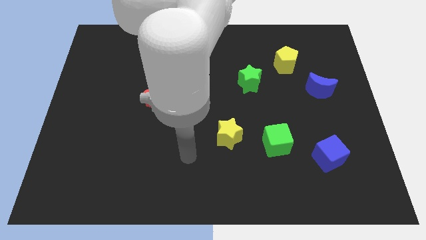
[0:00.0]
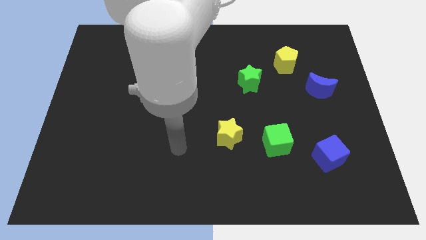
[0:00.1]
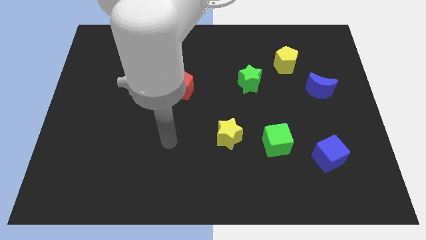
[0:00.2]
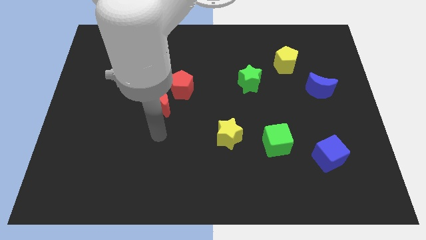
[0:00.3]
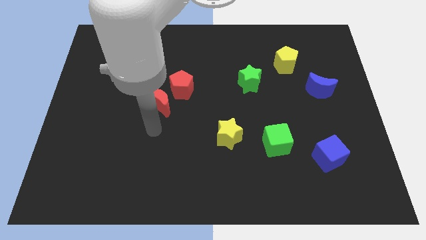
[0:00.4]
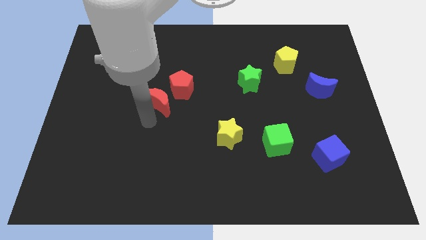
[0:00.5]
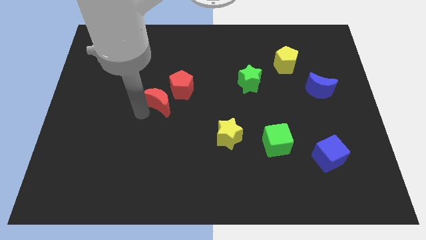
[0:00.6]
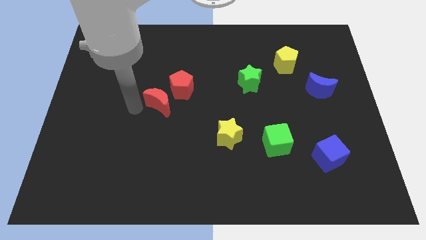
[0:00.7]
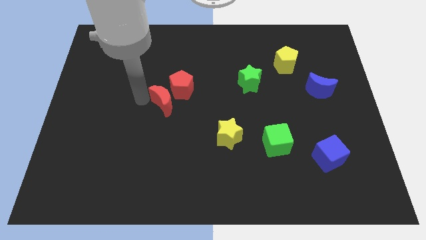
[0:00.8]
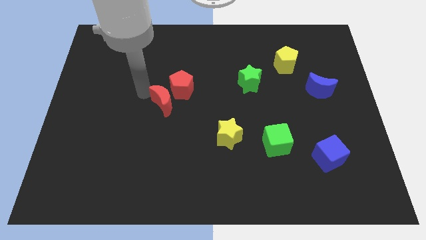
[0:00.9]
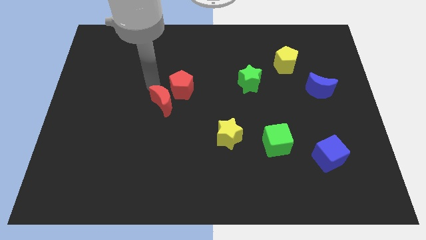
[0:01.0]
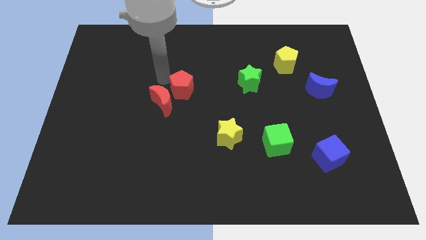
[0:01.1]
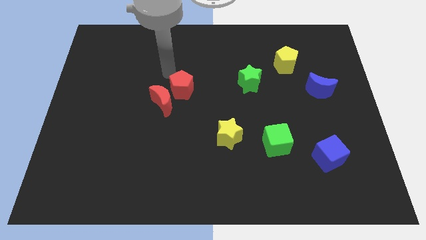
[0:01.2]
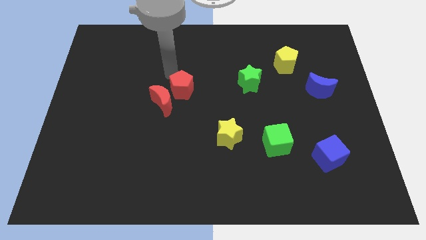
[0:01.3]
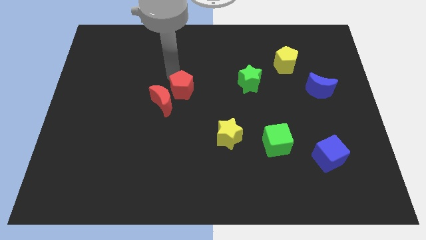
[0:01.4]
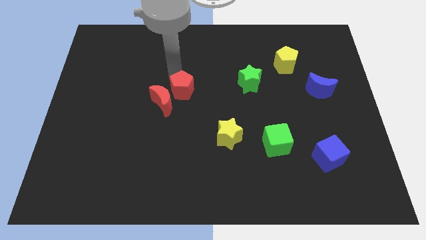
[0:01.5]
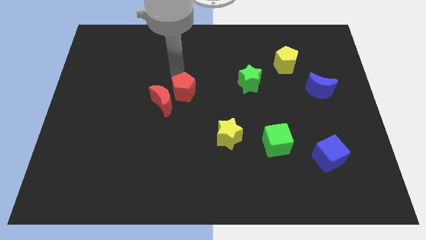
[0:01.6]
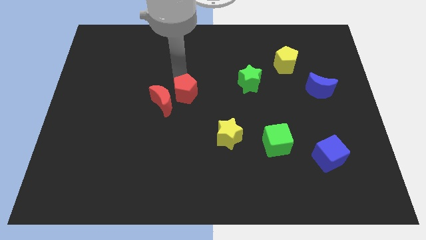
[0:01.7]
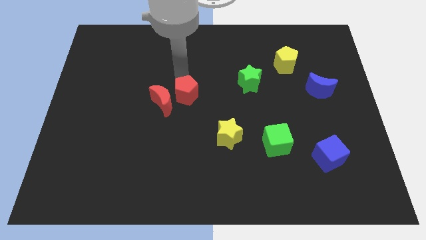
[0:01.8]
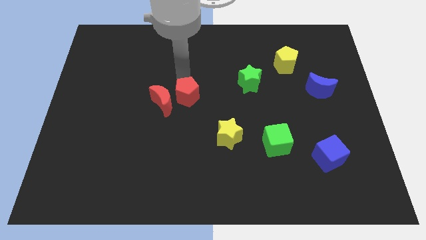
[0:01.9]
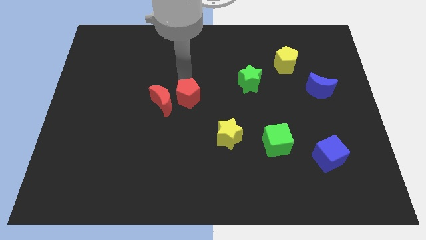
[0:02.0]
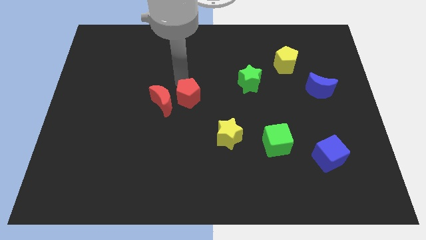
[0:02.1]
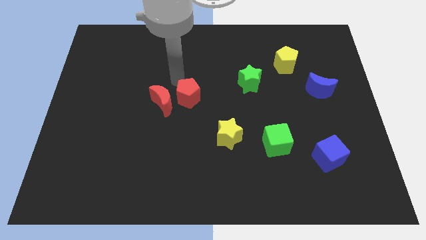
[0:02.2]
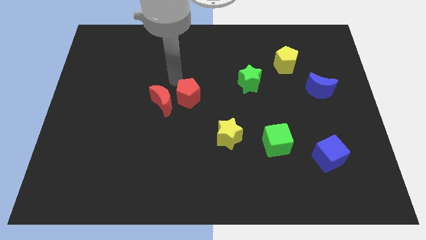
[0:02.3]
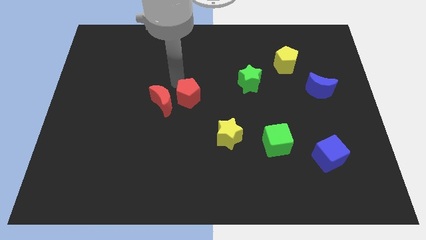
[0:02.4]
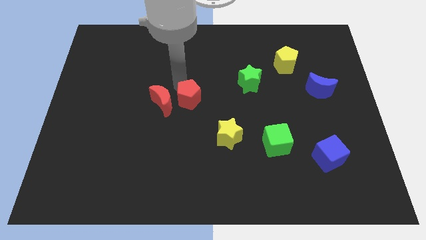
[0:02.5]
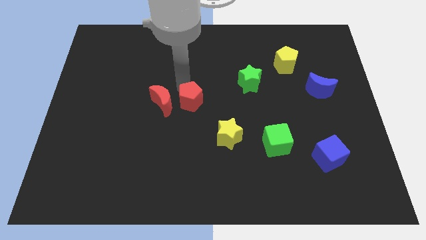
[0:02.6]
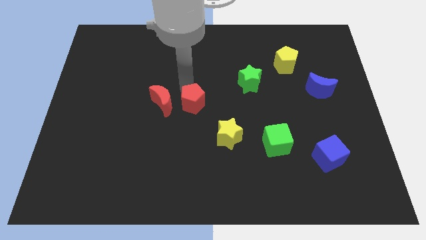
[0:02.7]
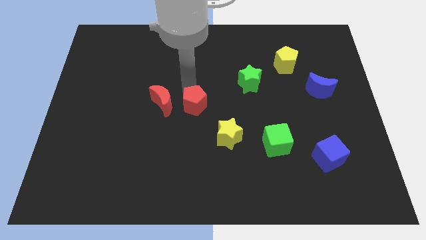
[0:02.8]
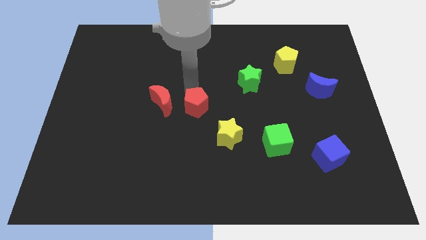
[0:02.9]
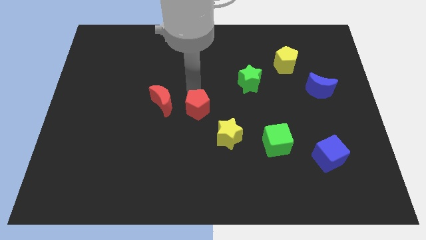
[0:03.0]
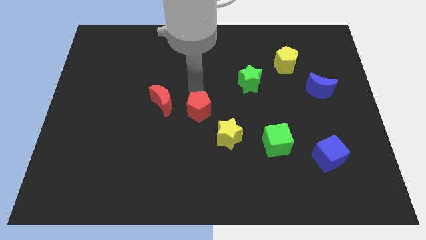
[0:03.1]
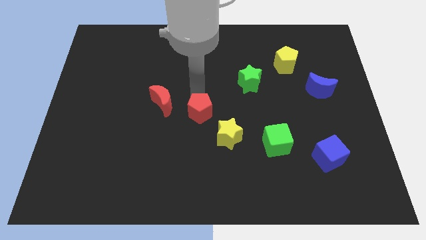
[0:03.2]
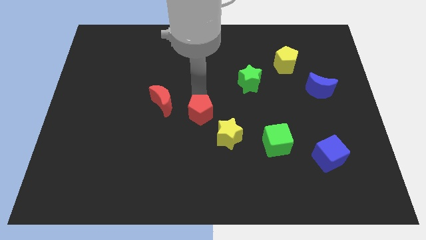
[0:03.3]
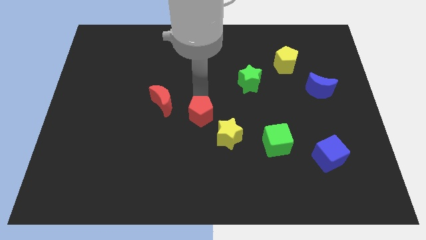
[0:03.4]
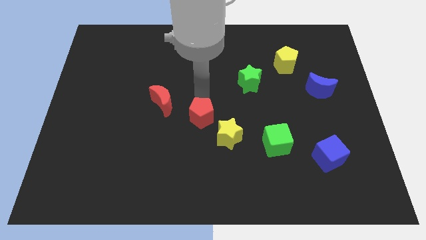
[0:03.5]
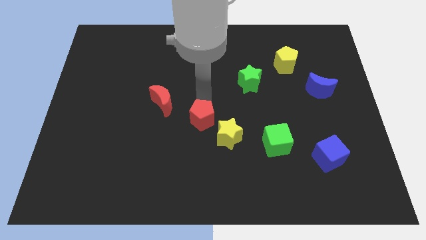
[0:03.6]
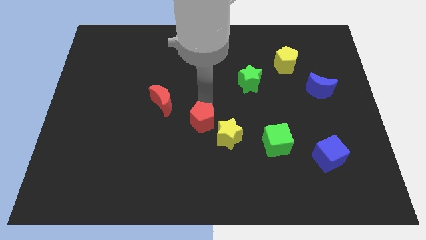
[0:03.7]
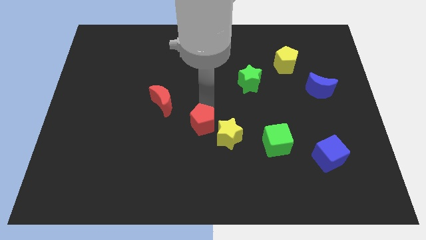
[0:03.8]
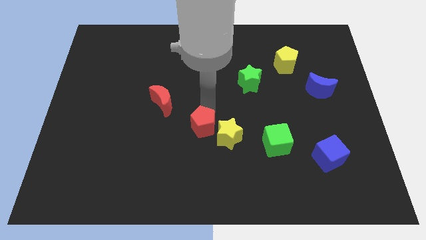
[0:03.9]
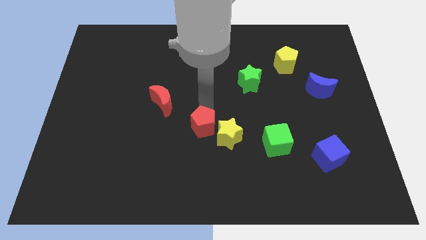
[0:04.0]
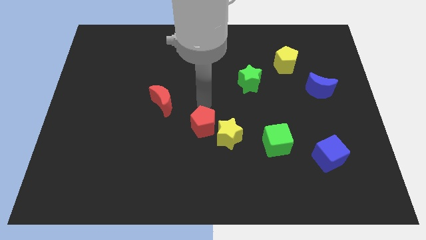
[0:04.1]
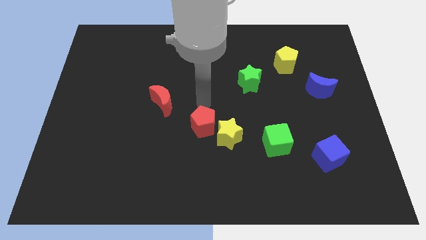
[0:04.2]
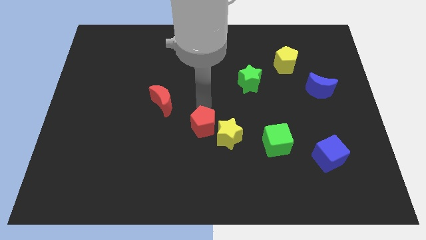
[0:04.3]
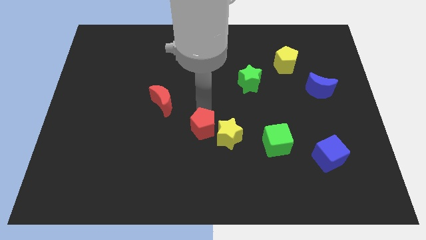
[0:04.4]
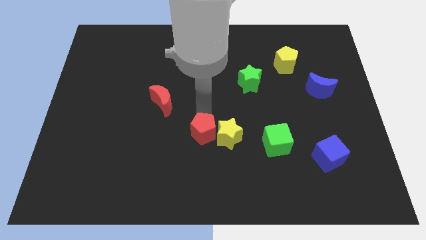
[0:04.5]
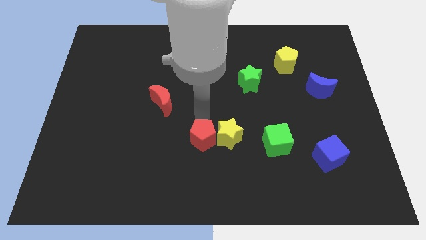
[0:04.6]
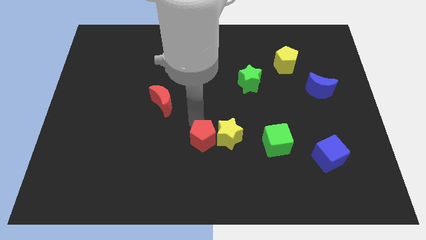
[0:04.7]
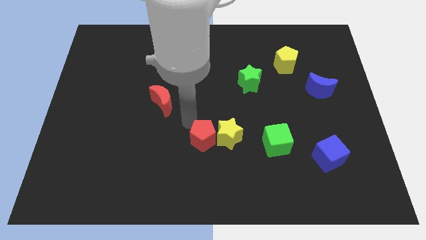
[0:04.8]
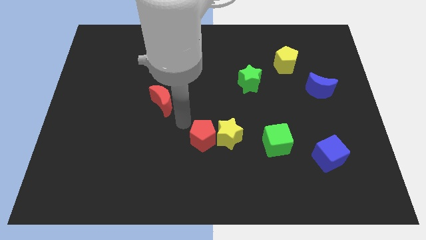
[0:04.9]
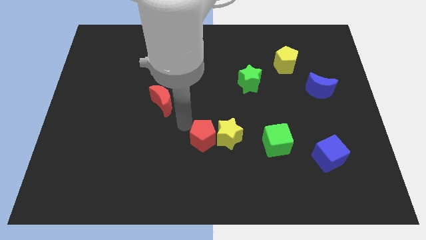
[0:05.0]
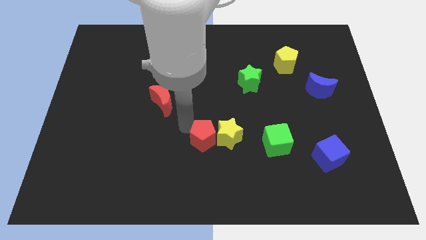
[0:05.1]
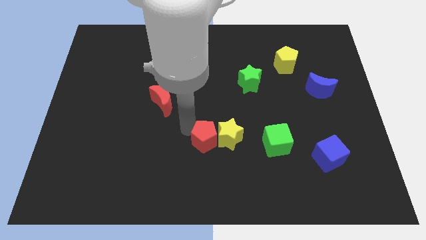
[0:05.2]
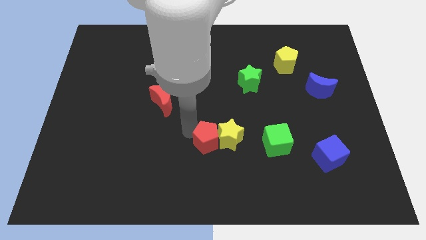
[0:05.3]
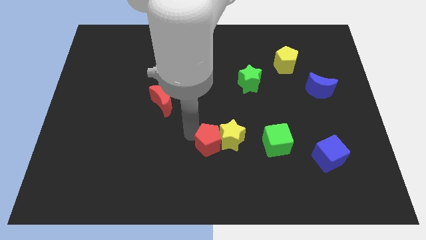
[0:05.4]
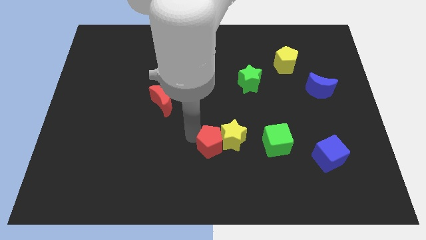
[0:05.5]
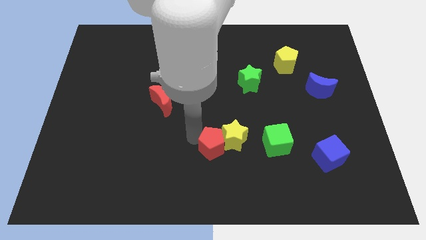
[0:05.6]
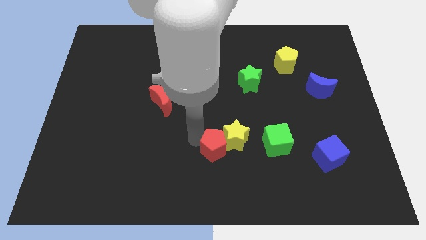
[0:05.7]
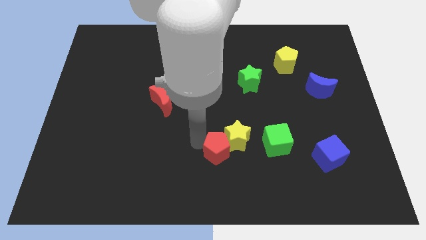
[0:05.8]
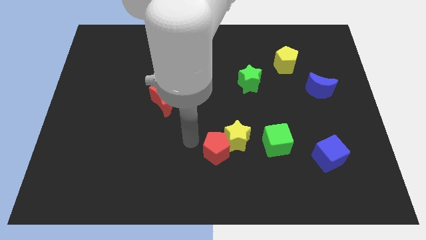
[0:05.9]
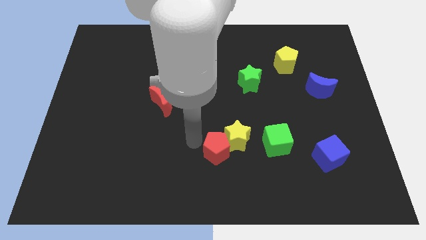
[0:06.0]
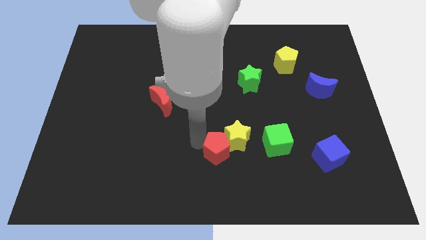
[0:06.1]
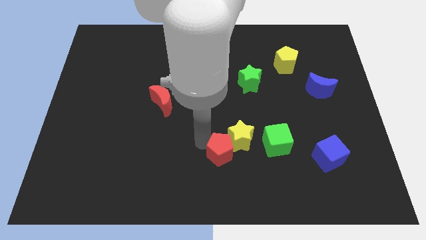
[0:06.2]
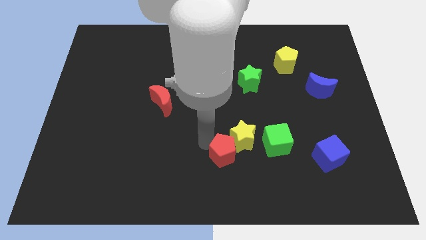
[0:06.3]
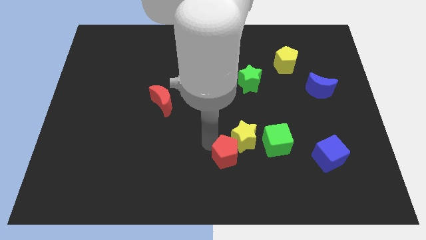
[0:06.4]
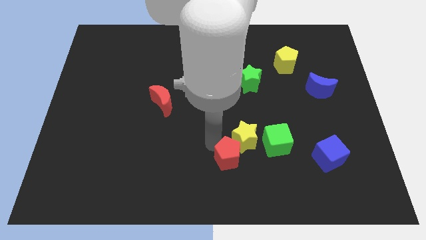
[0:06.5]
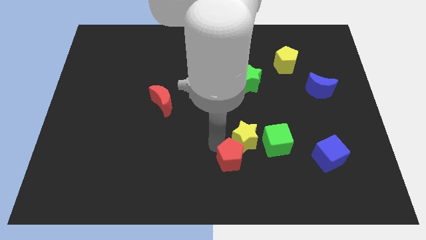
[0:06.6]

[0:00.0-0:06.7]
put the red pentagon diagonally down and to the left of the green cube

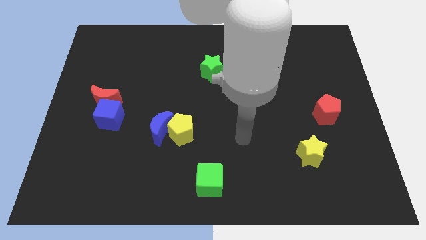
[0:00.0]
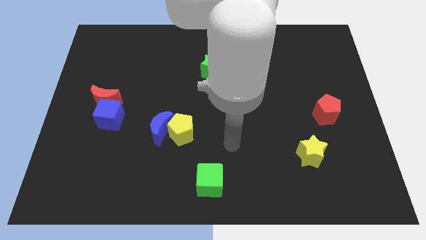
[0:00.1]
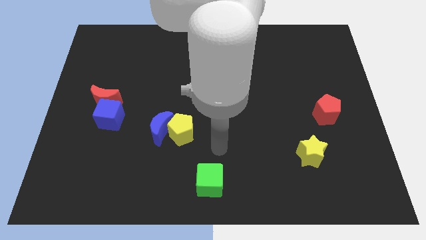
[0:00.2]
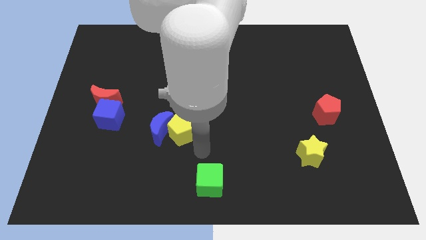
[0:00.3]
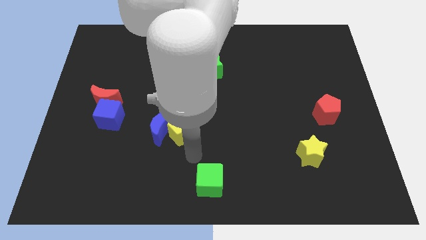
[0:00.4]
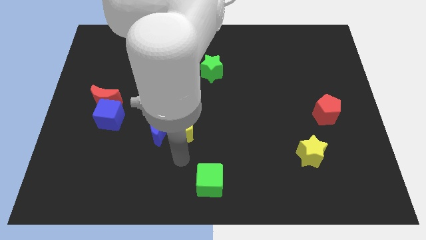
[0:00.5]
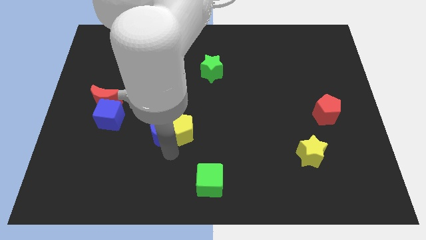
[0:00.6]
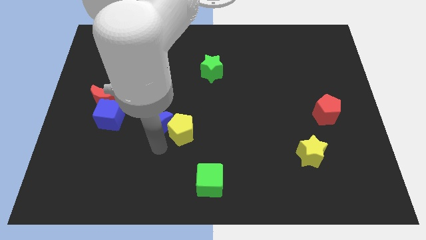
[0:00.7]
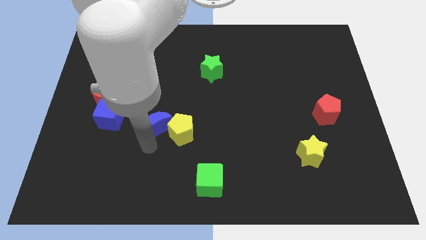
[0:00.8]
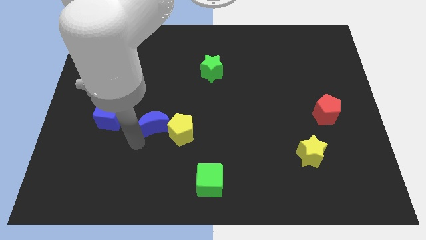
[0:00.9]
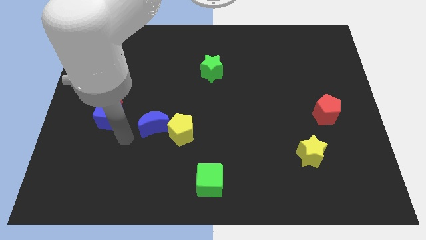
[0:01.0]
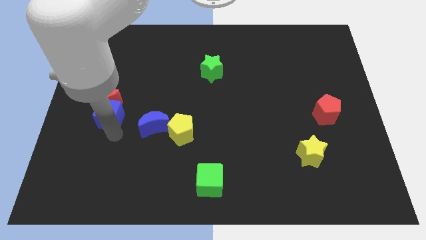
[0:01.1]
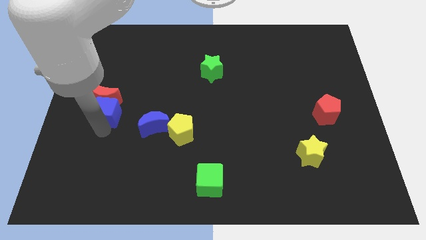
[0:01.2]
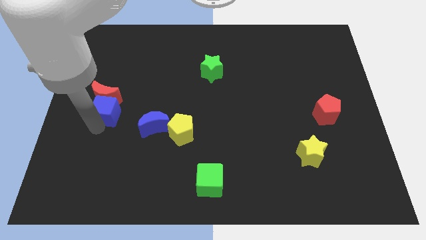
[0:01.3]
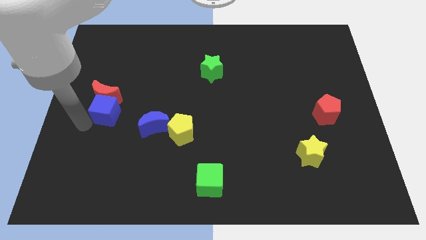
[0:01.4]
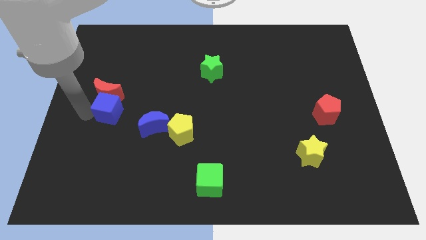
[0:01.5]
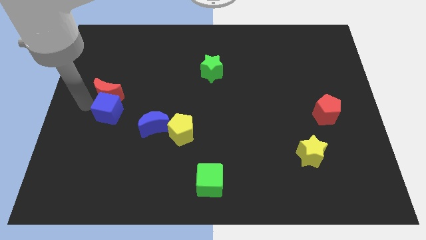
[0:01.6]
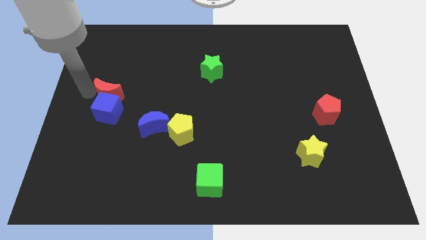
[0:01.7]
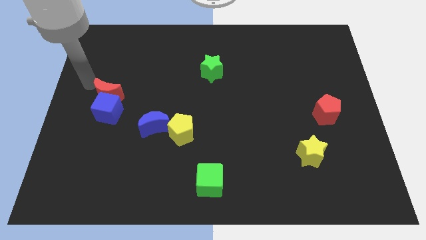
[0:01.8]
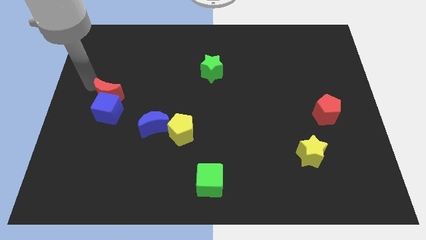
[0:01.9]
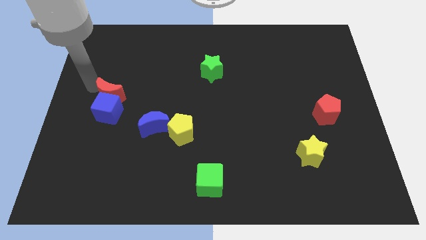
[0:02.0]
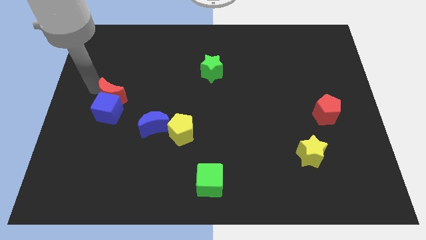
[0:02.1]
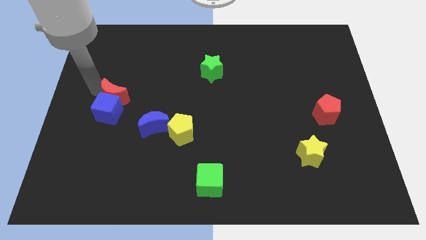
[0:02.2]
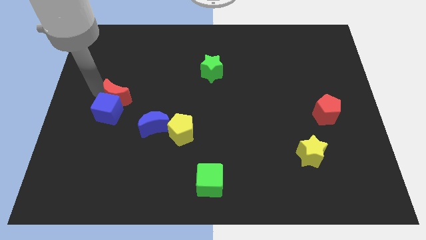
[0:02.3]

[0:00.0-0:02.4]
push the red moon to the top left of the blue moon
